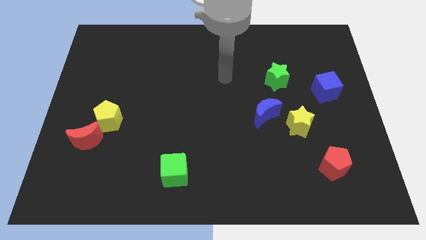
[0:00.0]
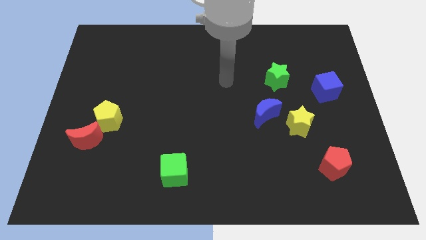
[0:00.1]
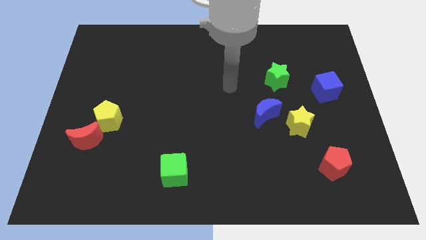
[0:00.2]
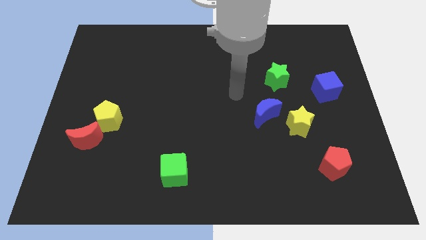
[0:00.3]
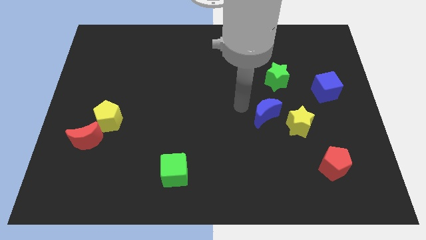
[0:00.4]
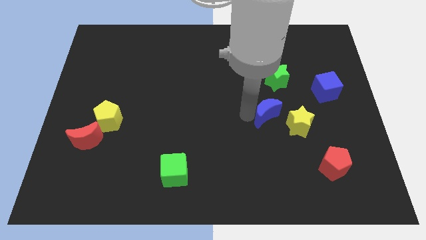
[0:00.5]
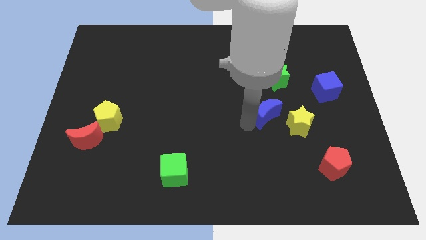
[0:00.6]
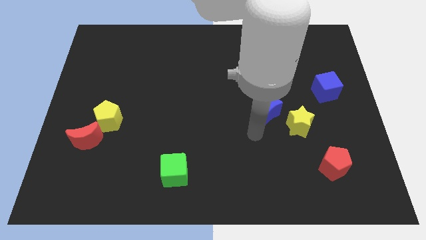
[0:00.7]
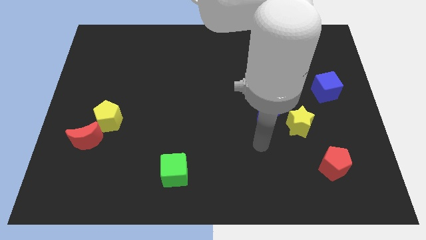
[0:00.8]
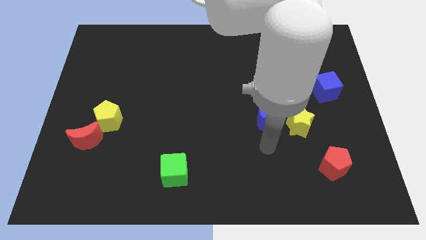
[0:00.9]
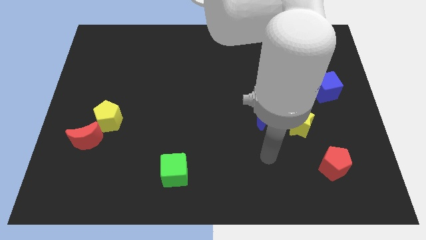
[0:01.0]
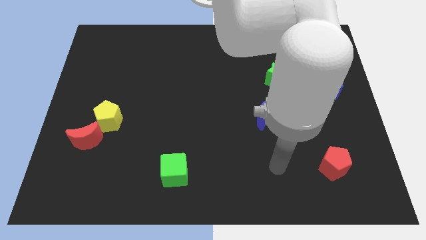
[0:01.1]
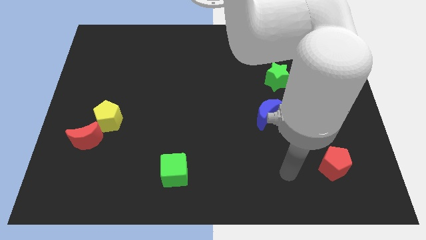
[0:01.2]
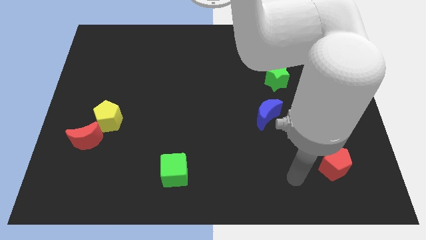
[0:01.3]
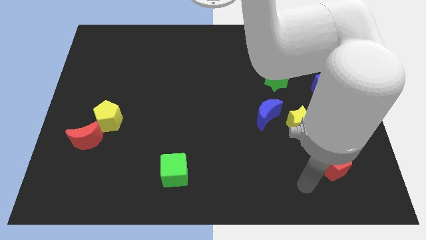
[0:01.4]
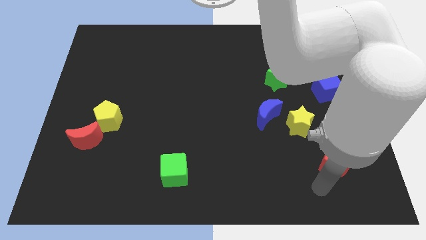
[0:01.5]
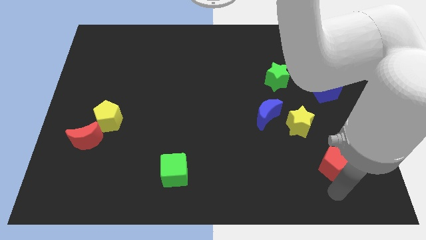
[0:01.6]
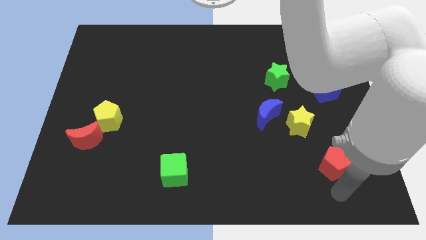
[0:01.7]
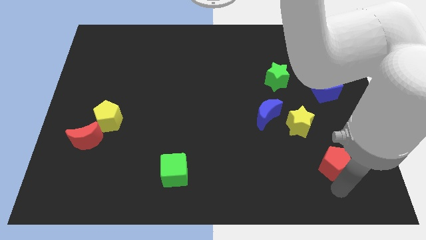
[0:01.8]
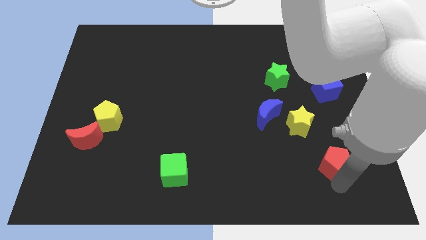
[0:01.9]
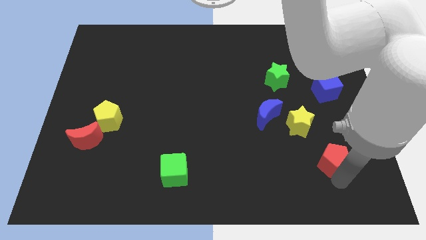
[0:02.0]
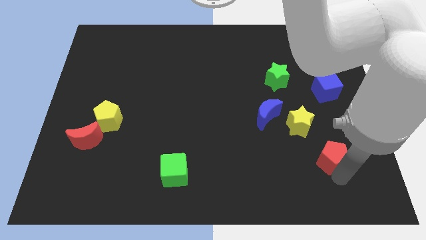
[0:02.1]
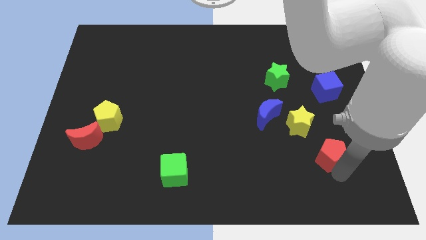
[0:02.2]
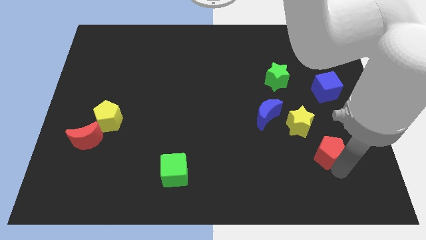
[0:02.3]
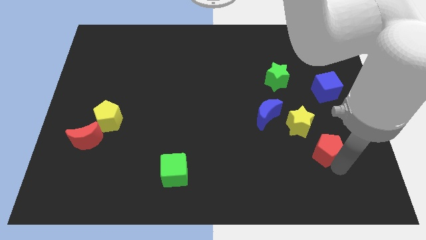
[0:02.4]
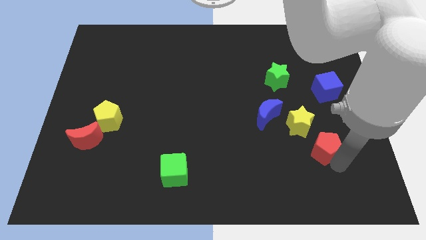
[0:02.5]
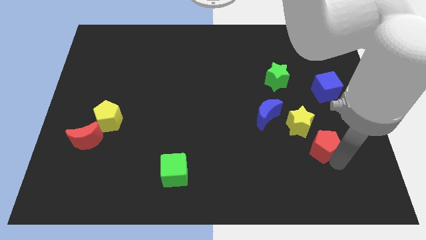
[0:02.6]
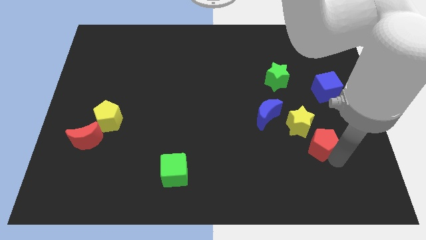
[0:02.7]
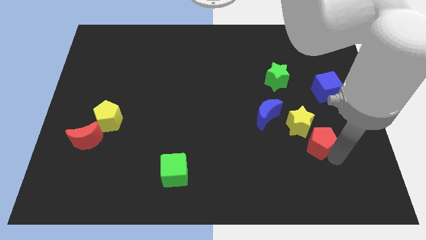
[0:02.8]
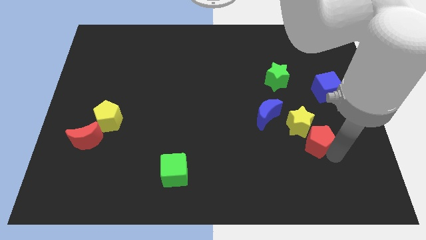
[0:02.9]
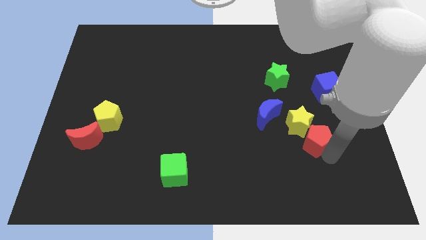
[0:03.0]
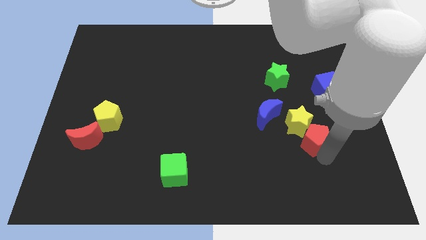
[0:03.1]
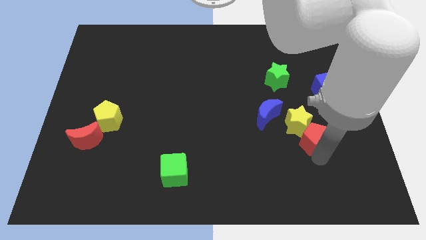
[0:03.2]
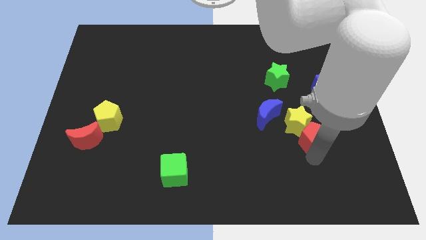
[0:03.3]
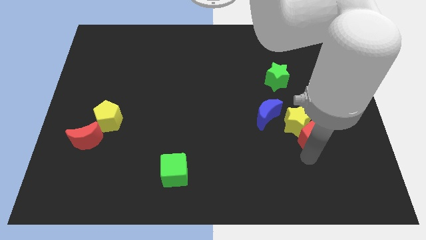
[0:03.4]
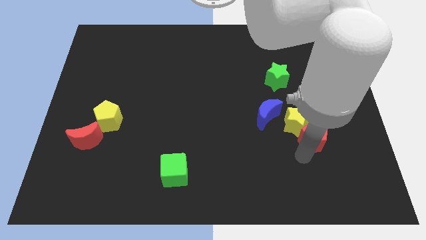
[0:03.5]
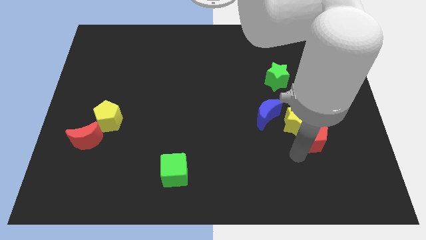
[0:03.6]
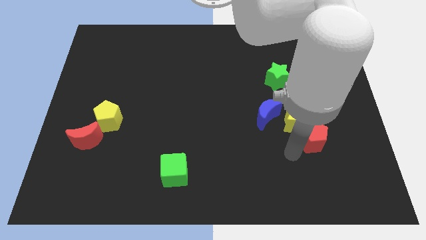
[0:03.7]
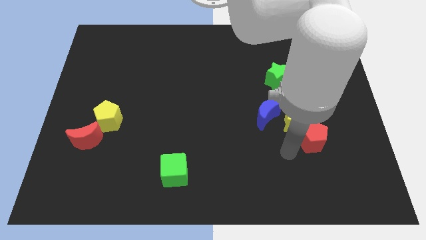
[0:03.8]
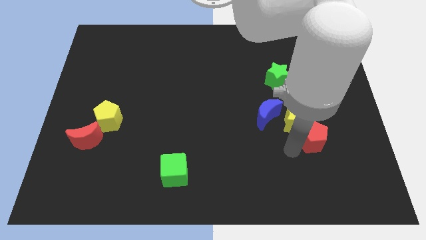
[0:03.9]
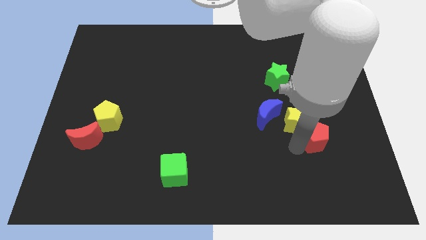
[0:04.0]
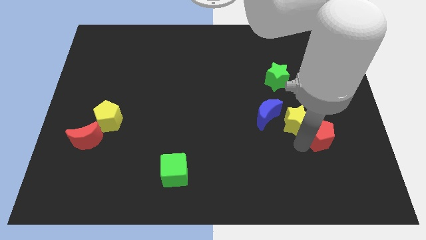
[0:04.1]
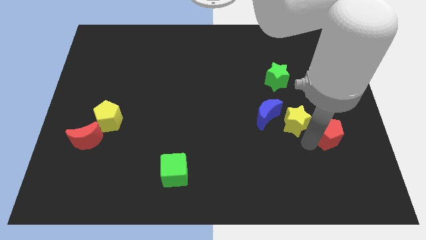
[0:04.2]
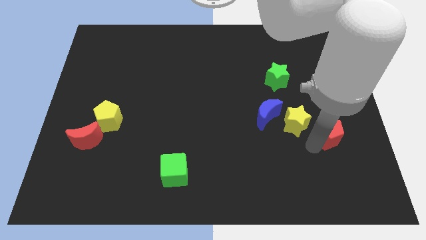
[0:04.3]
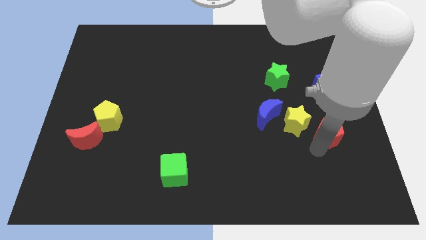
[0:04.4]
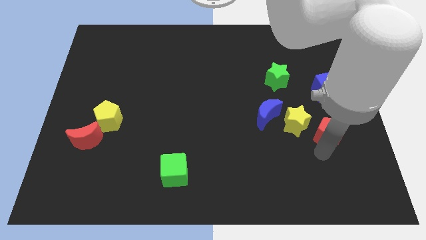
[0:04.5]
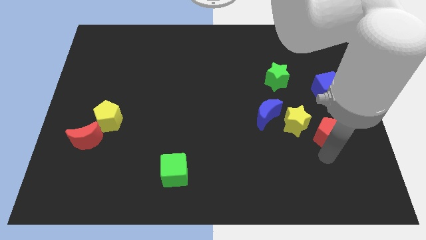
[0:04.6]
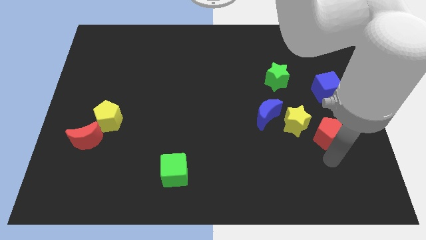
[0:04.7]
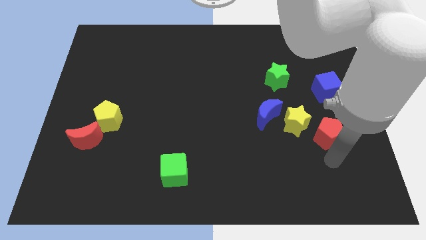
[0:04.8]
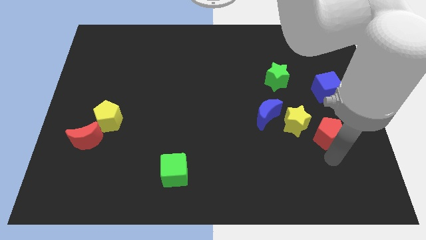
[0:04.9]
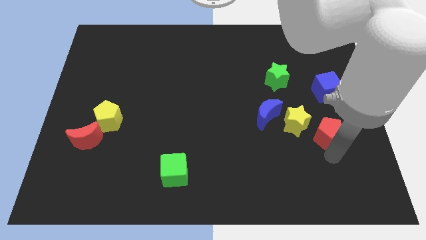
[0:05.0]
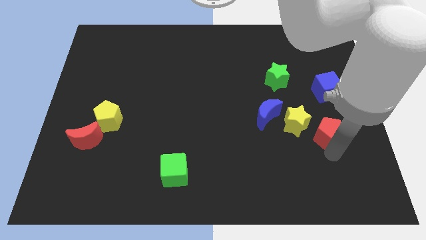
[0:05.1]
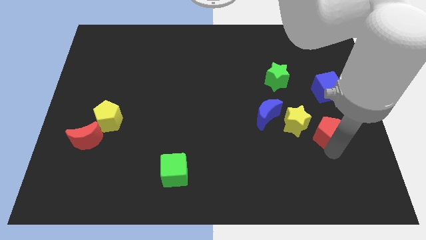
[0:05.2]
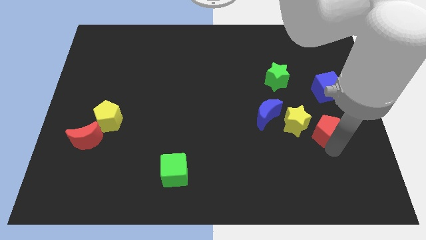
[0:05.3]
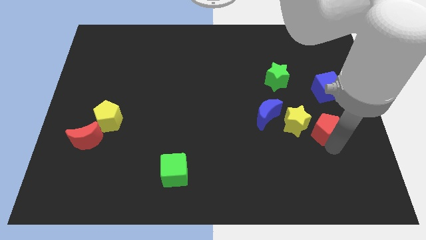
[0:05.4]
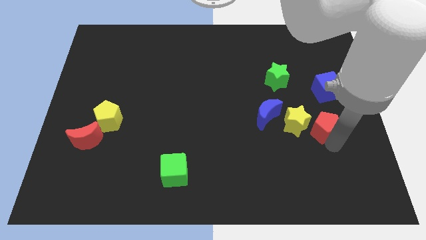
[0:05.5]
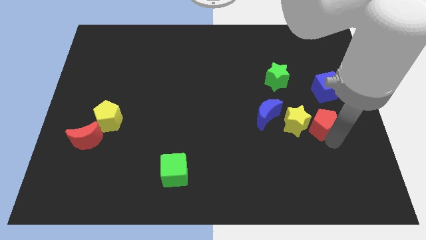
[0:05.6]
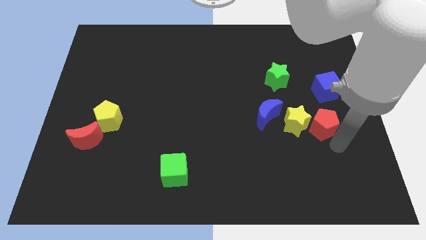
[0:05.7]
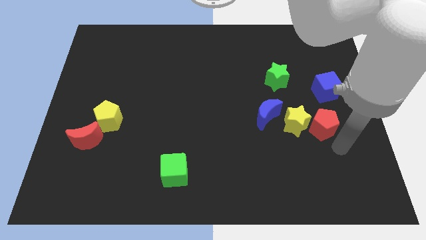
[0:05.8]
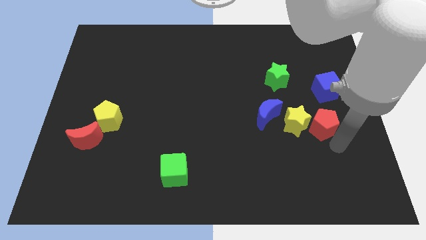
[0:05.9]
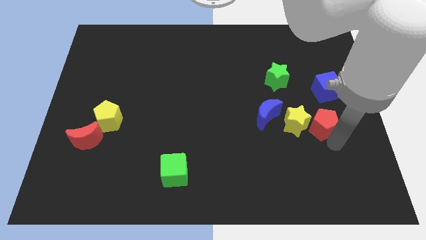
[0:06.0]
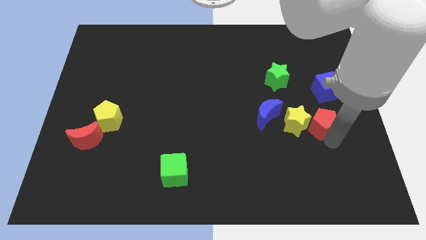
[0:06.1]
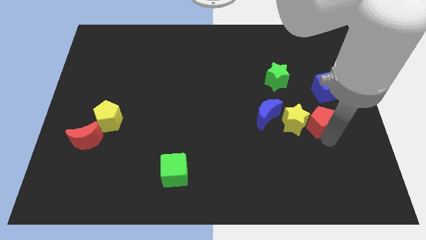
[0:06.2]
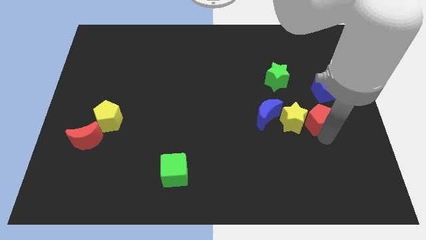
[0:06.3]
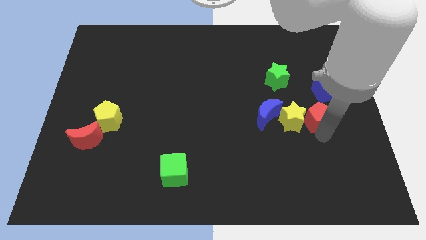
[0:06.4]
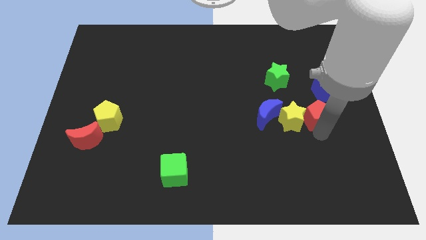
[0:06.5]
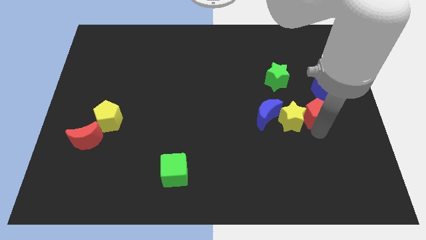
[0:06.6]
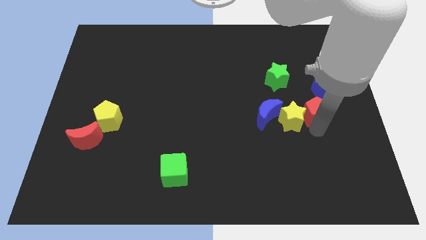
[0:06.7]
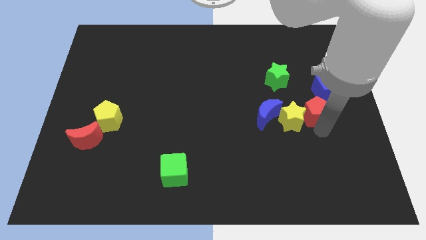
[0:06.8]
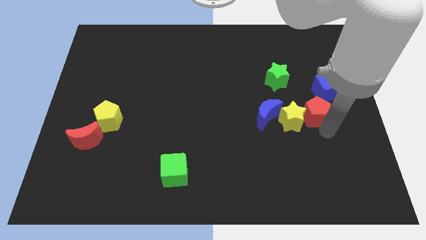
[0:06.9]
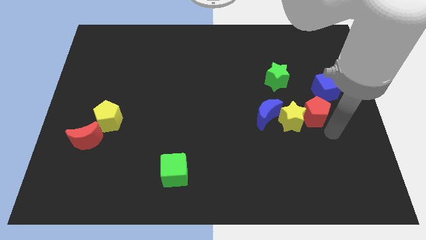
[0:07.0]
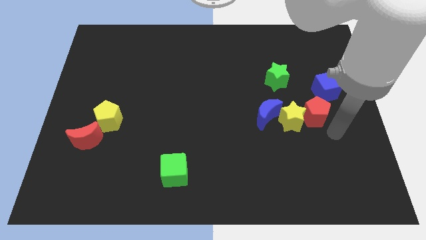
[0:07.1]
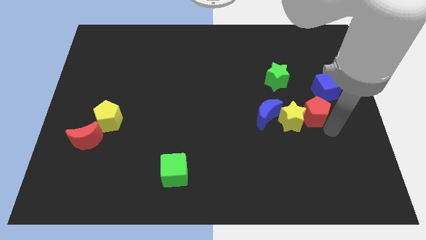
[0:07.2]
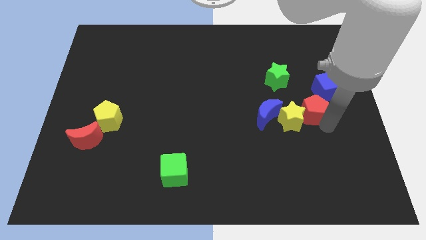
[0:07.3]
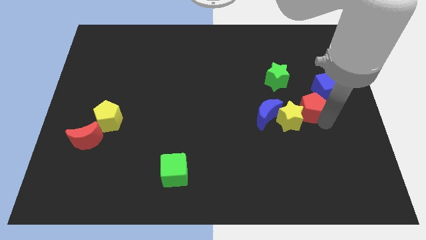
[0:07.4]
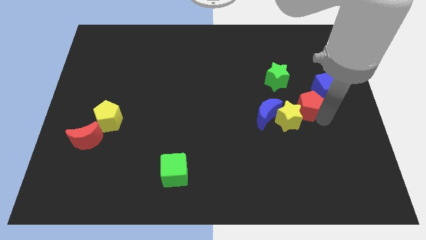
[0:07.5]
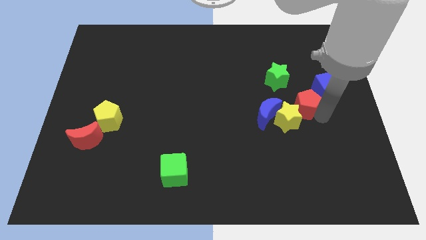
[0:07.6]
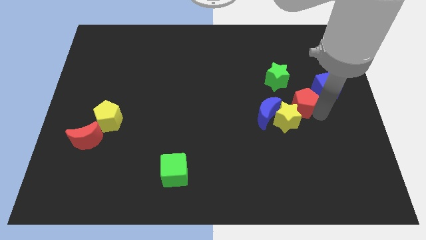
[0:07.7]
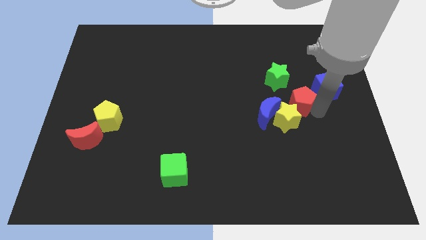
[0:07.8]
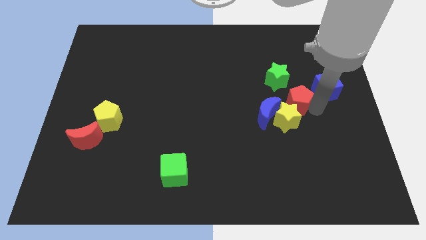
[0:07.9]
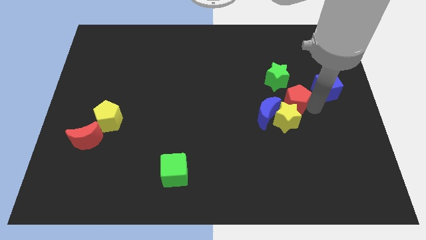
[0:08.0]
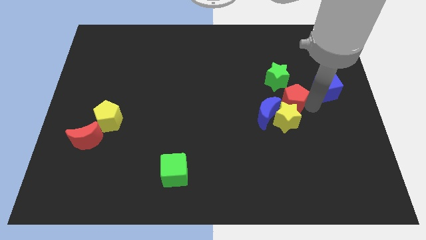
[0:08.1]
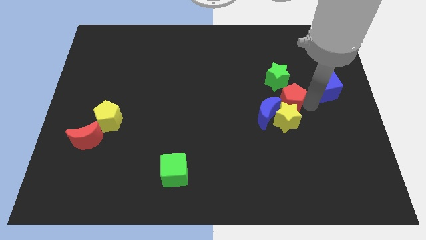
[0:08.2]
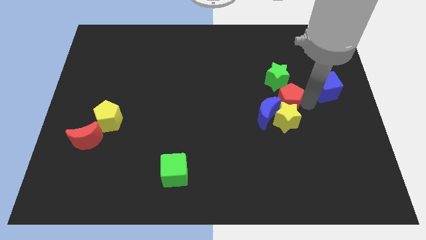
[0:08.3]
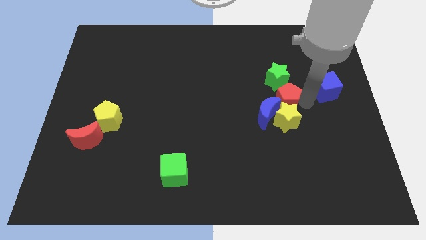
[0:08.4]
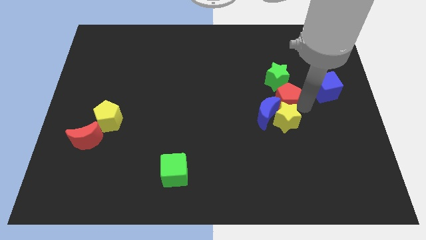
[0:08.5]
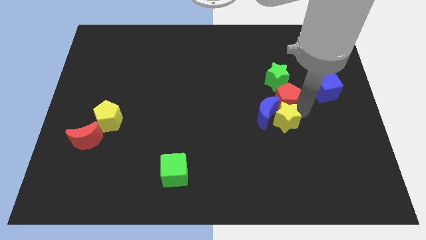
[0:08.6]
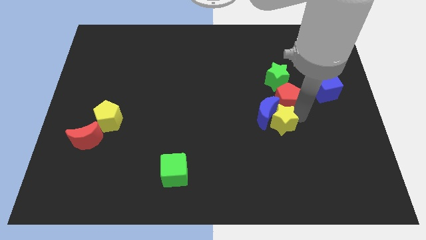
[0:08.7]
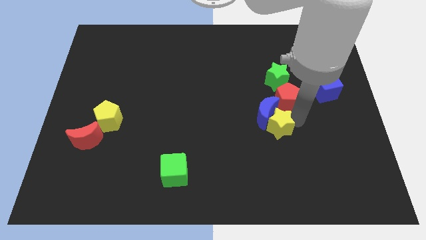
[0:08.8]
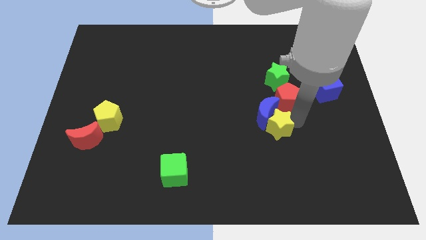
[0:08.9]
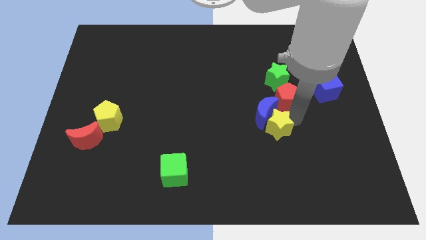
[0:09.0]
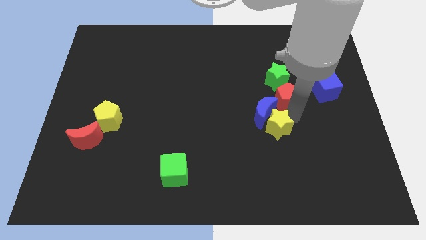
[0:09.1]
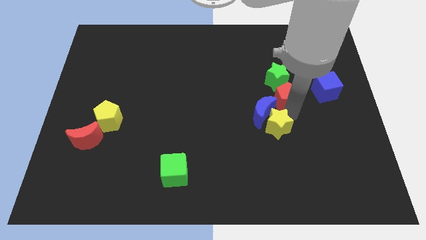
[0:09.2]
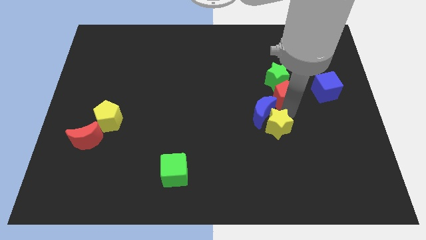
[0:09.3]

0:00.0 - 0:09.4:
move the red pentagon close to the green star
